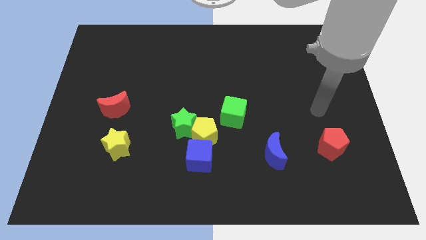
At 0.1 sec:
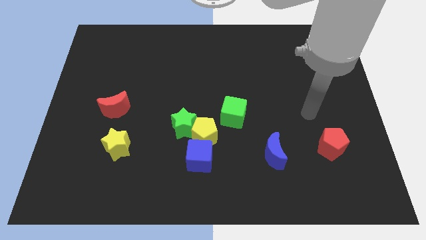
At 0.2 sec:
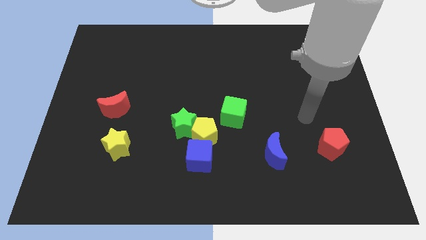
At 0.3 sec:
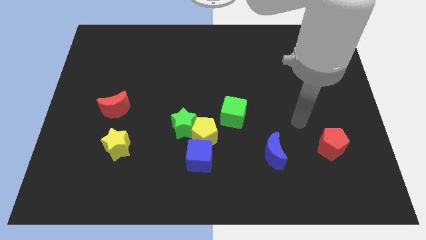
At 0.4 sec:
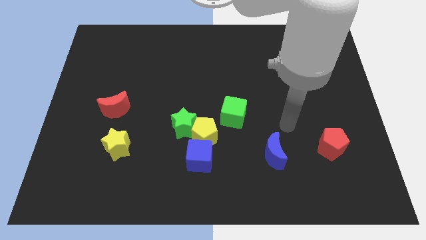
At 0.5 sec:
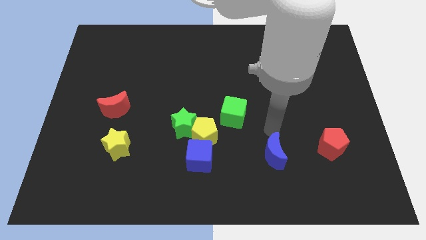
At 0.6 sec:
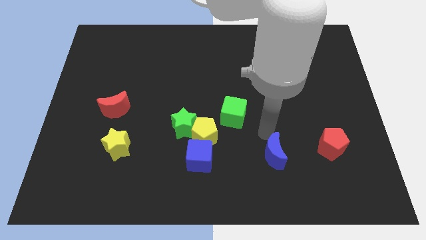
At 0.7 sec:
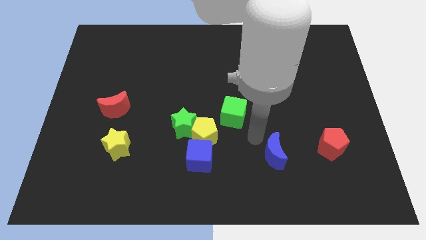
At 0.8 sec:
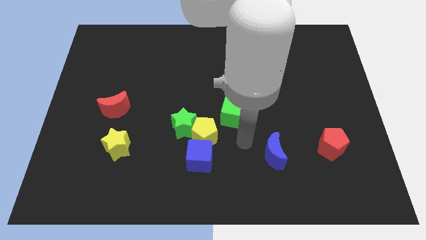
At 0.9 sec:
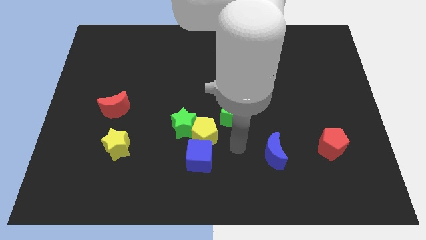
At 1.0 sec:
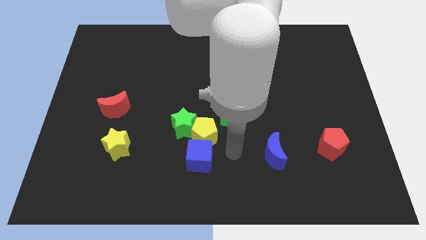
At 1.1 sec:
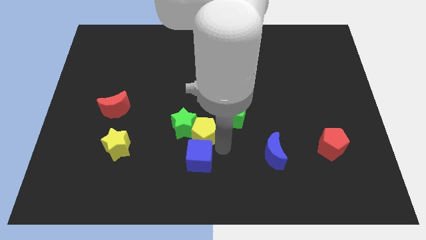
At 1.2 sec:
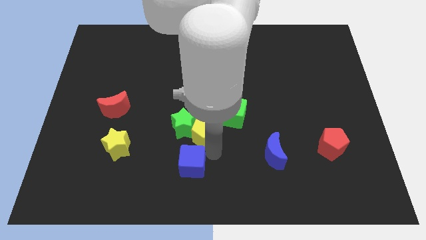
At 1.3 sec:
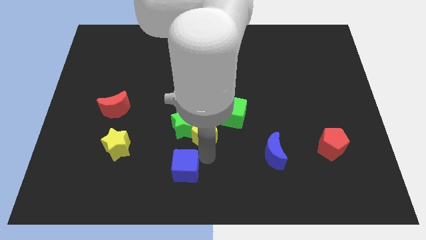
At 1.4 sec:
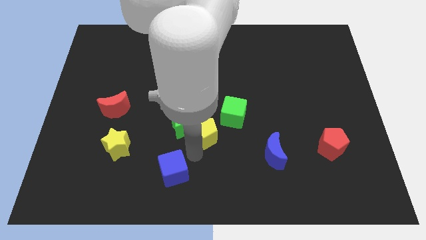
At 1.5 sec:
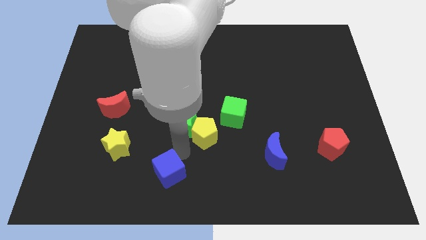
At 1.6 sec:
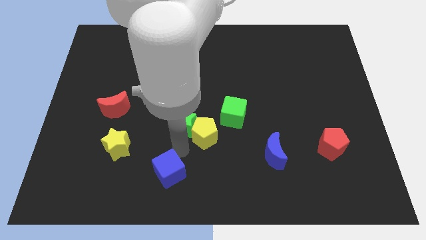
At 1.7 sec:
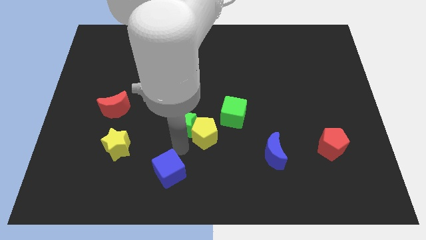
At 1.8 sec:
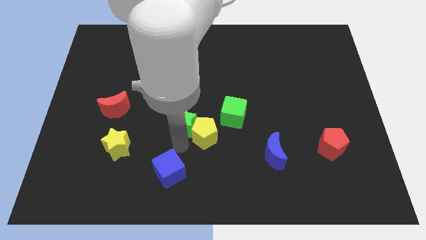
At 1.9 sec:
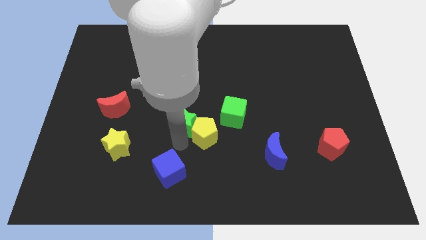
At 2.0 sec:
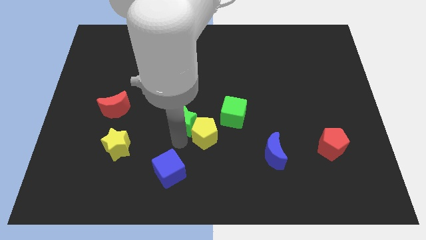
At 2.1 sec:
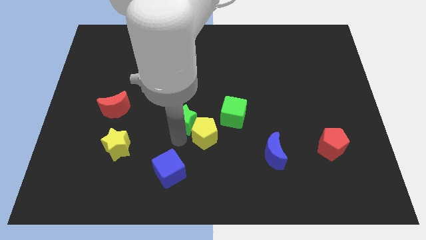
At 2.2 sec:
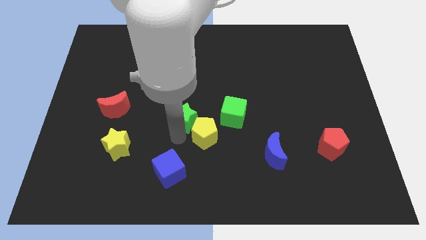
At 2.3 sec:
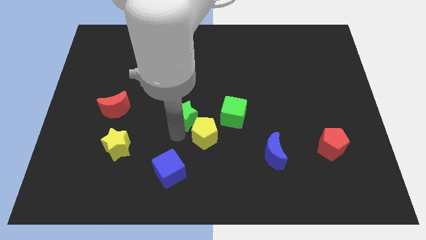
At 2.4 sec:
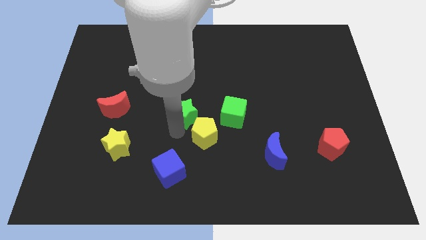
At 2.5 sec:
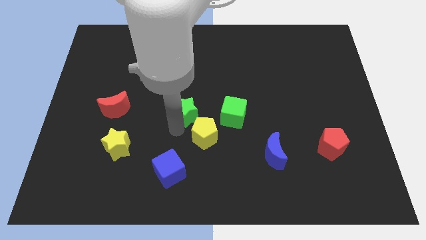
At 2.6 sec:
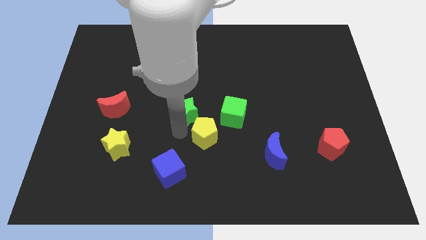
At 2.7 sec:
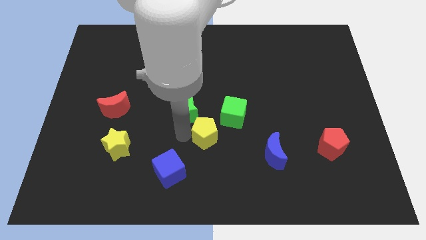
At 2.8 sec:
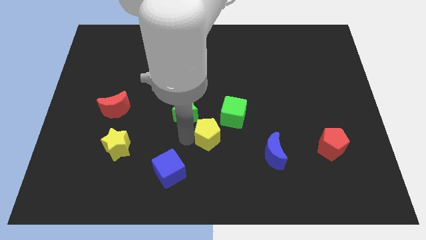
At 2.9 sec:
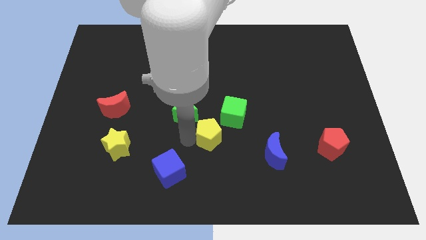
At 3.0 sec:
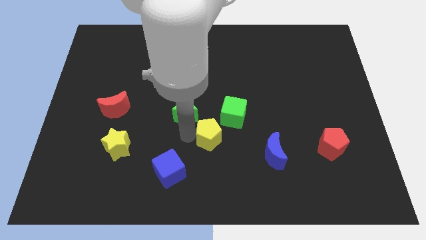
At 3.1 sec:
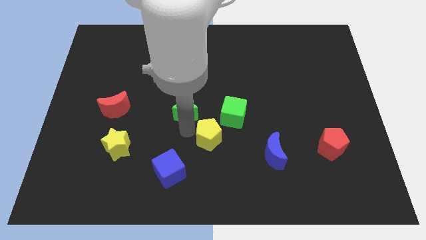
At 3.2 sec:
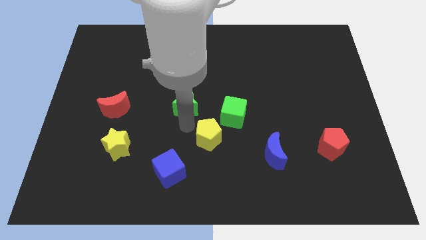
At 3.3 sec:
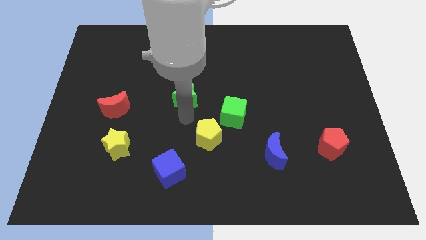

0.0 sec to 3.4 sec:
push the green star a little up

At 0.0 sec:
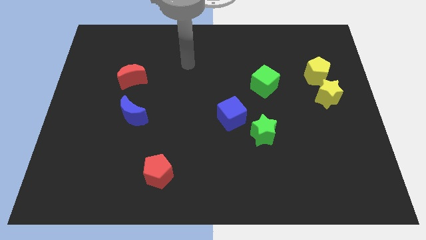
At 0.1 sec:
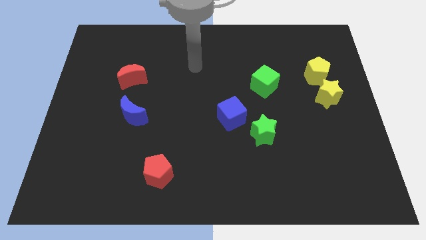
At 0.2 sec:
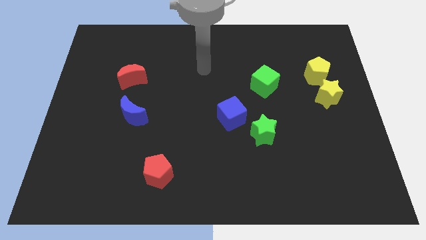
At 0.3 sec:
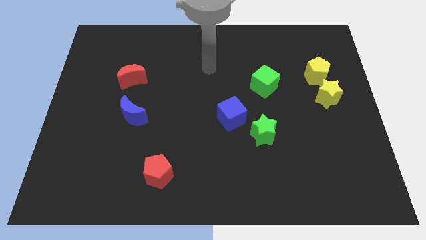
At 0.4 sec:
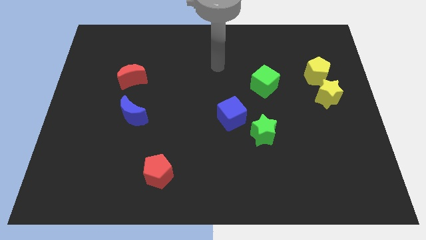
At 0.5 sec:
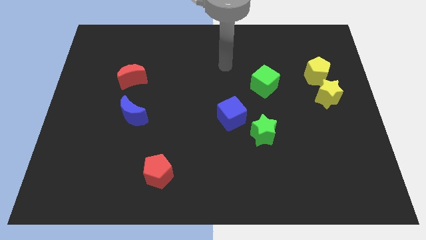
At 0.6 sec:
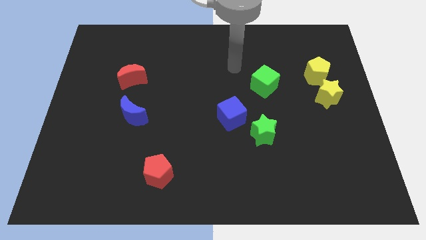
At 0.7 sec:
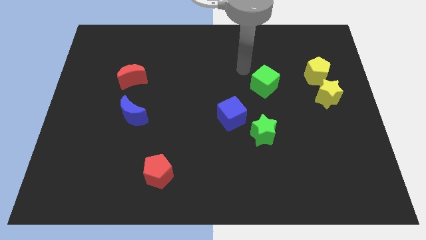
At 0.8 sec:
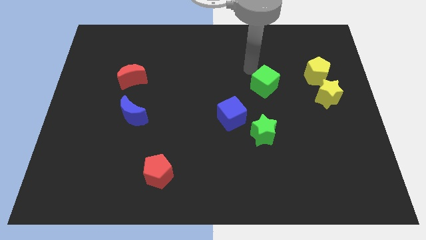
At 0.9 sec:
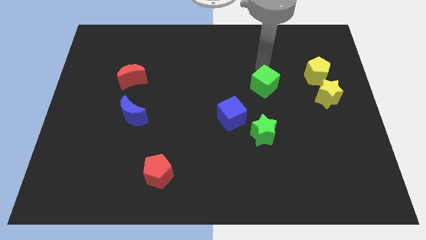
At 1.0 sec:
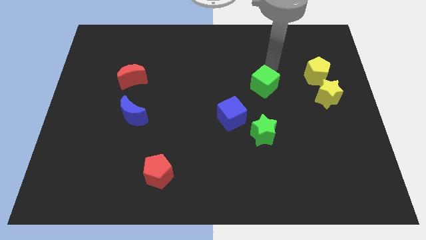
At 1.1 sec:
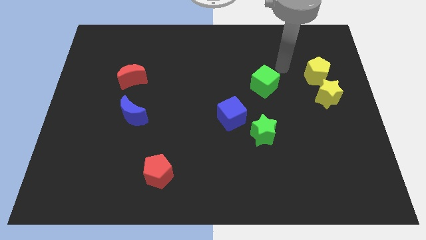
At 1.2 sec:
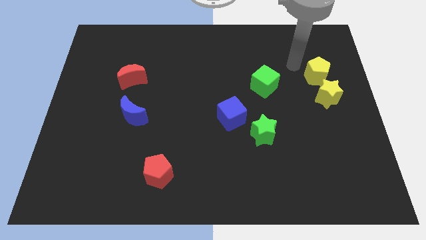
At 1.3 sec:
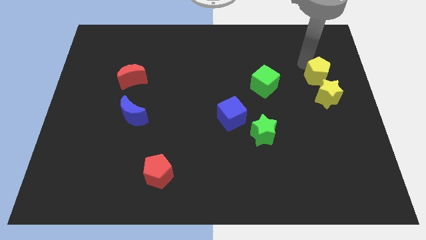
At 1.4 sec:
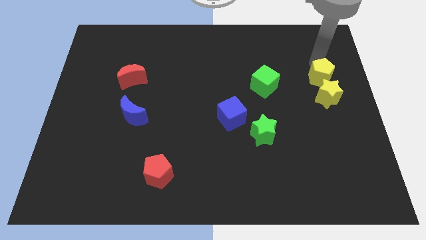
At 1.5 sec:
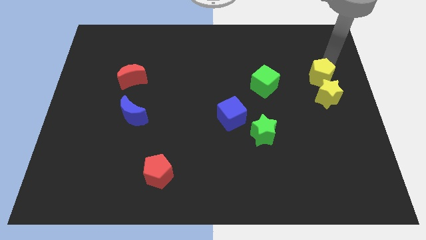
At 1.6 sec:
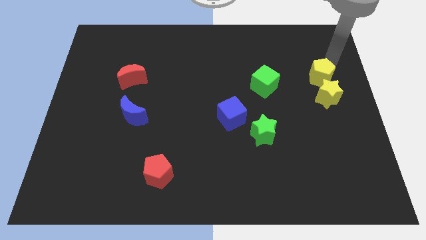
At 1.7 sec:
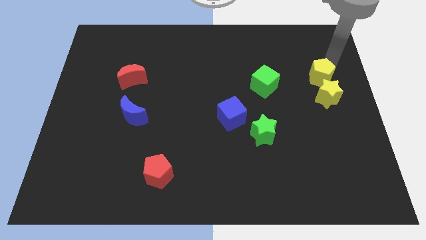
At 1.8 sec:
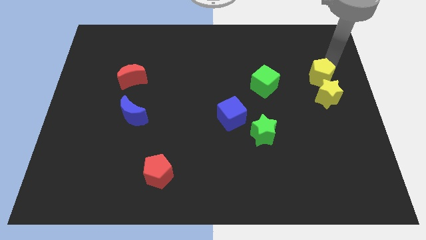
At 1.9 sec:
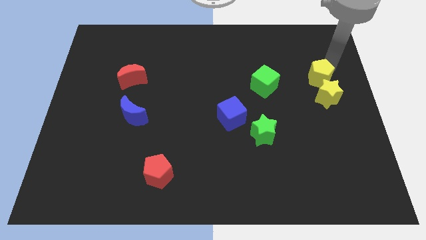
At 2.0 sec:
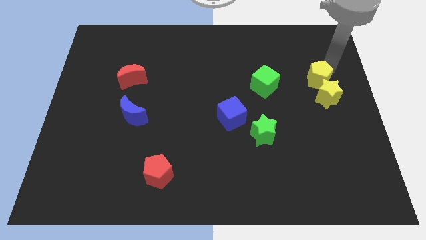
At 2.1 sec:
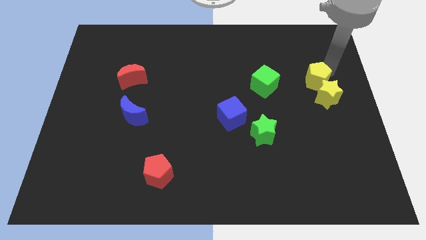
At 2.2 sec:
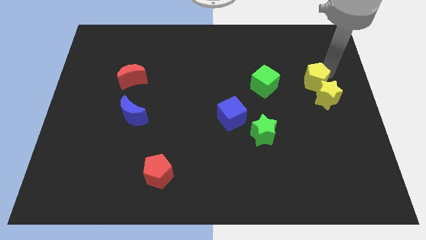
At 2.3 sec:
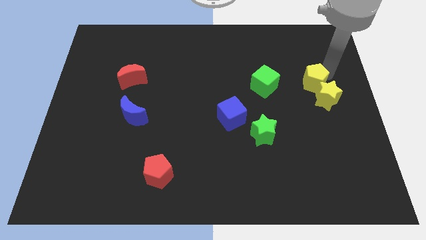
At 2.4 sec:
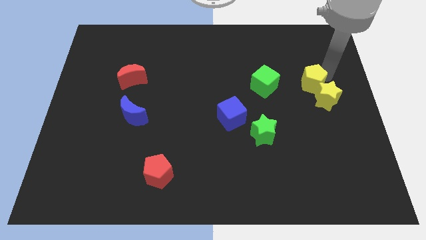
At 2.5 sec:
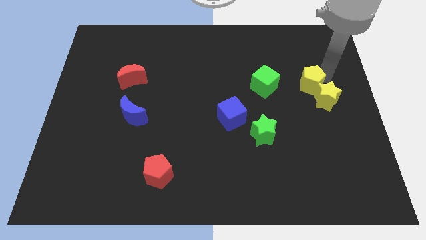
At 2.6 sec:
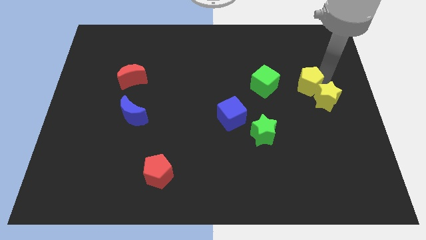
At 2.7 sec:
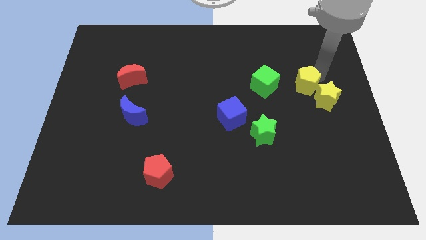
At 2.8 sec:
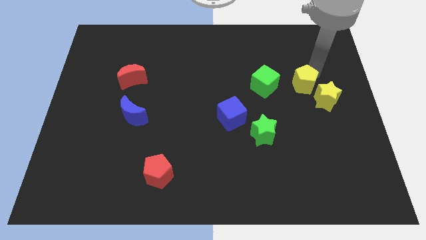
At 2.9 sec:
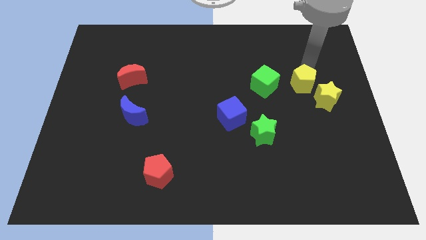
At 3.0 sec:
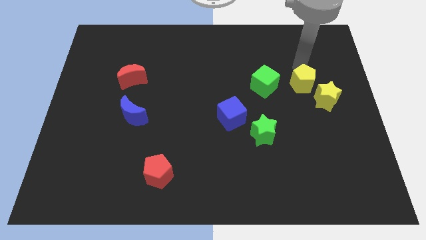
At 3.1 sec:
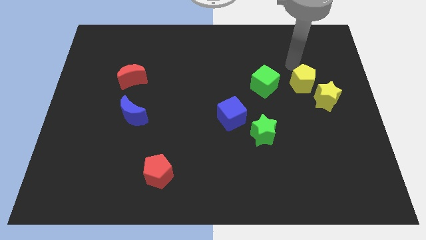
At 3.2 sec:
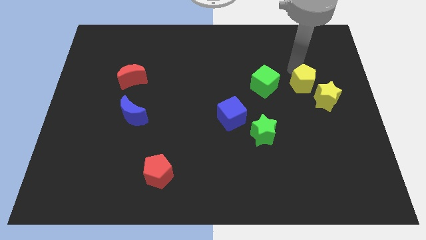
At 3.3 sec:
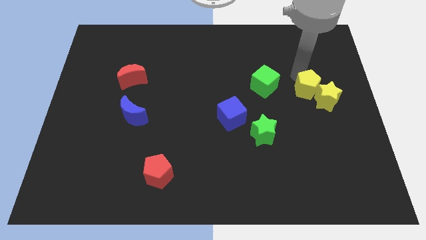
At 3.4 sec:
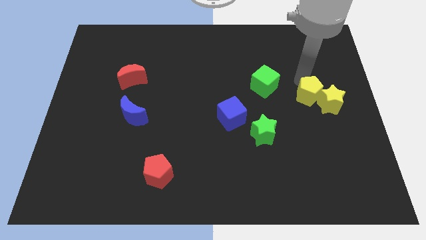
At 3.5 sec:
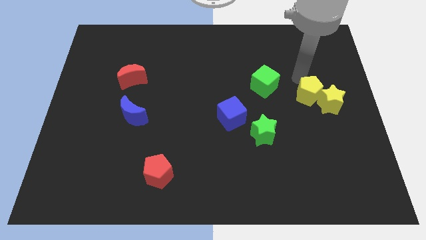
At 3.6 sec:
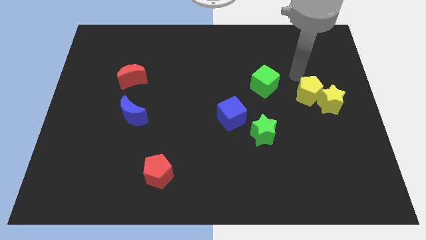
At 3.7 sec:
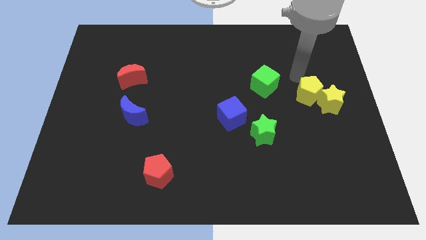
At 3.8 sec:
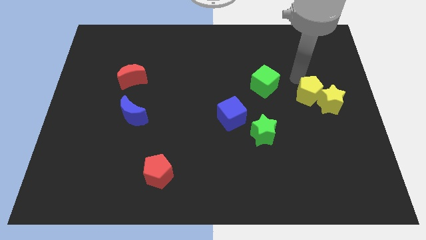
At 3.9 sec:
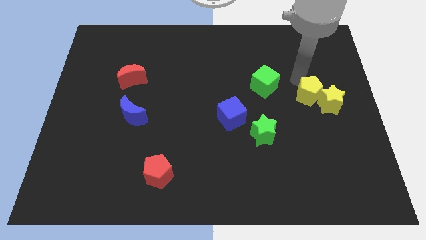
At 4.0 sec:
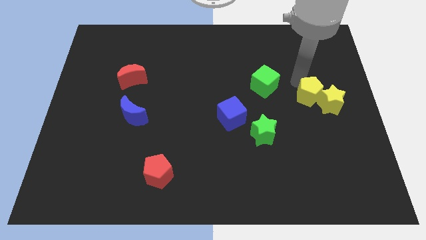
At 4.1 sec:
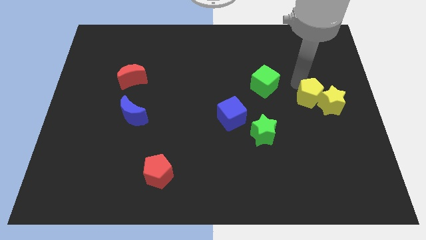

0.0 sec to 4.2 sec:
slightly push the yellow pentagon downwards

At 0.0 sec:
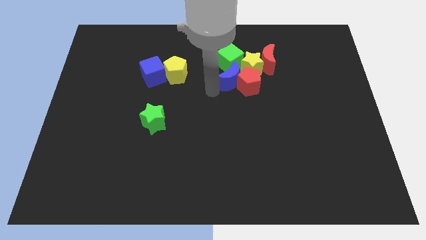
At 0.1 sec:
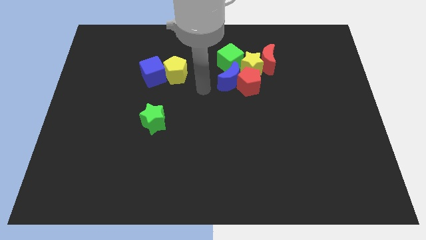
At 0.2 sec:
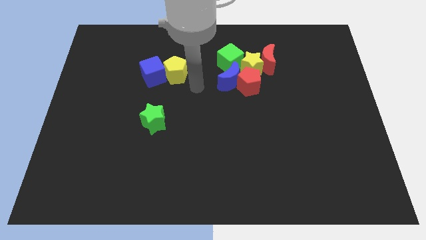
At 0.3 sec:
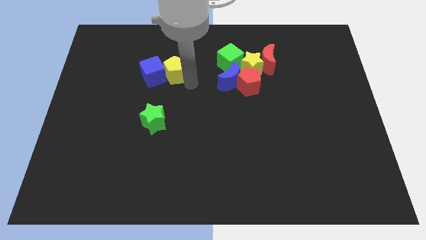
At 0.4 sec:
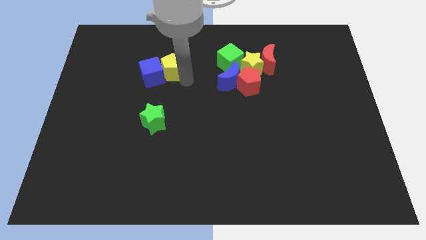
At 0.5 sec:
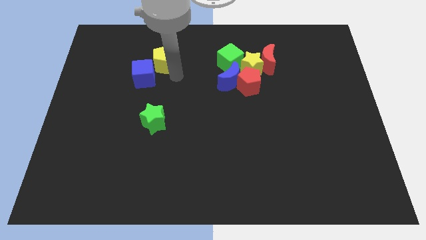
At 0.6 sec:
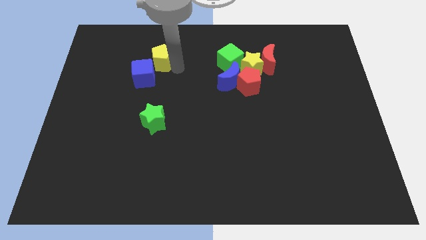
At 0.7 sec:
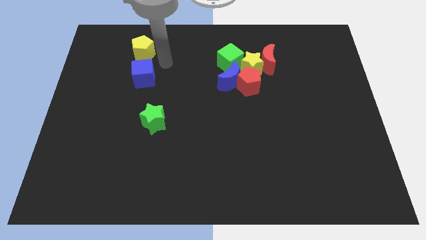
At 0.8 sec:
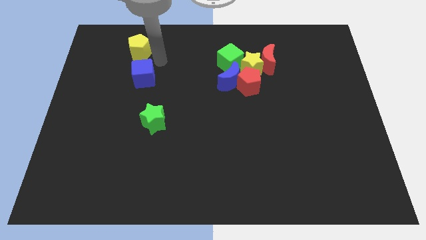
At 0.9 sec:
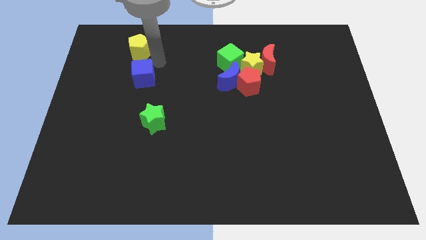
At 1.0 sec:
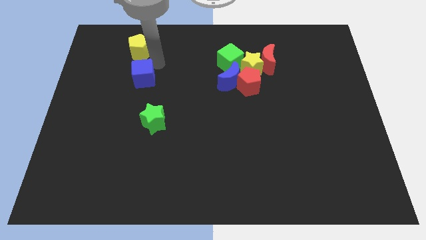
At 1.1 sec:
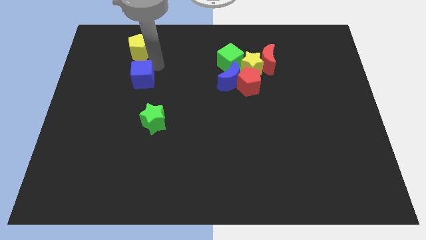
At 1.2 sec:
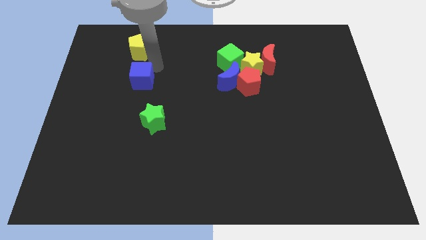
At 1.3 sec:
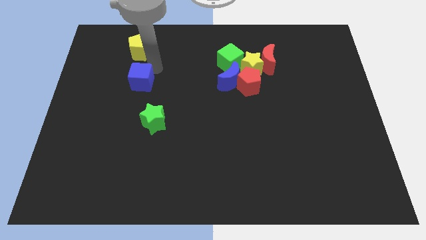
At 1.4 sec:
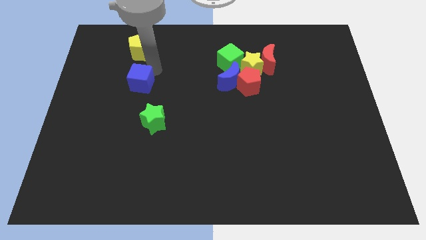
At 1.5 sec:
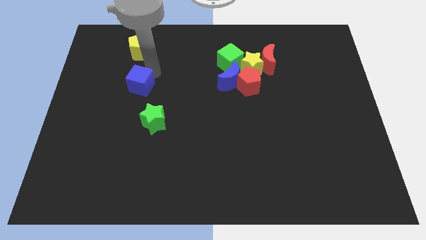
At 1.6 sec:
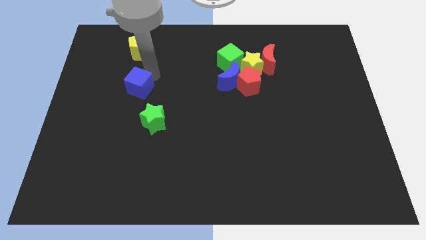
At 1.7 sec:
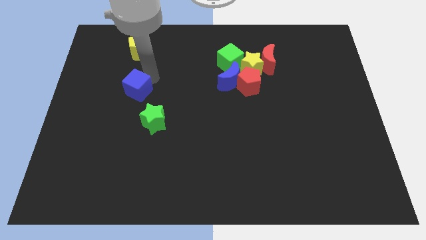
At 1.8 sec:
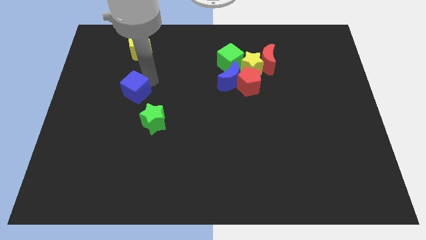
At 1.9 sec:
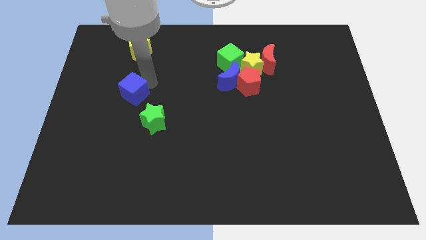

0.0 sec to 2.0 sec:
slightly push the blue cube down and left
